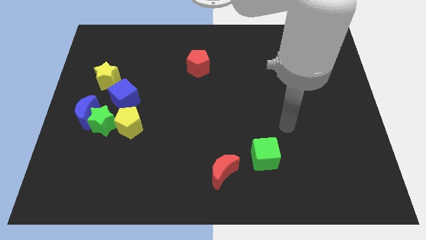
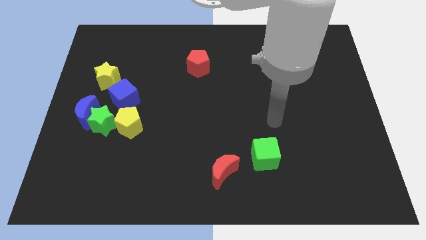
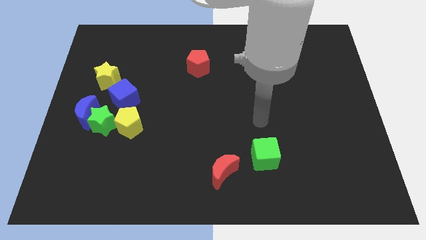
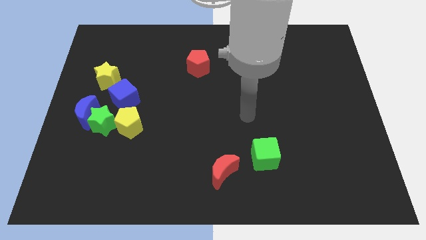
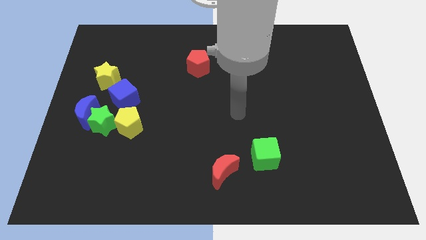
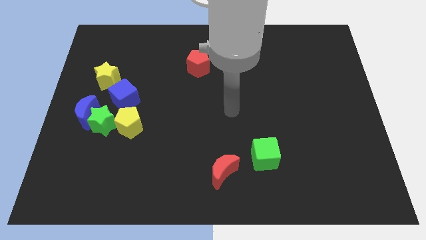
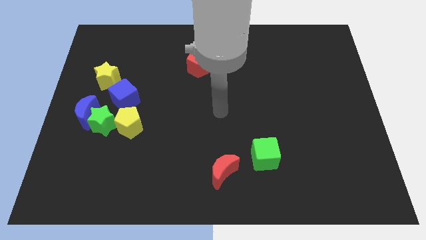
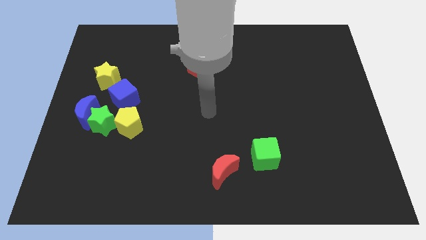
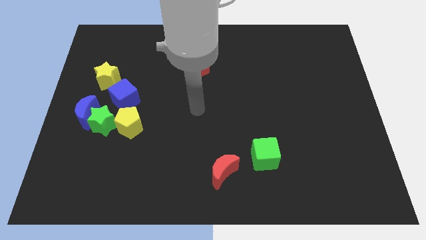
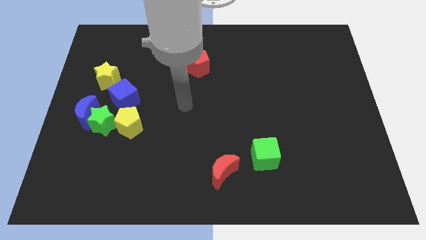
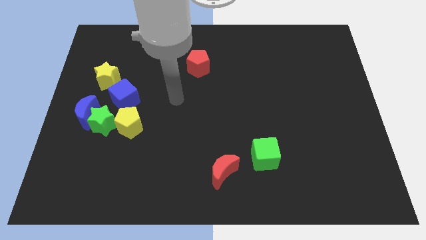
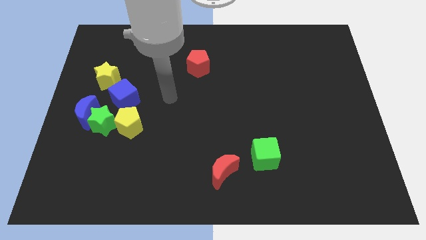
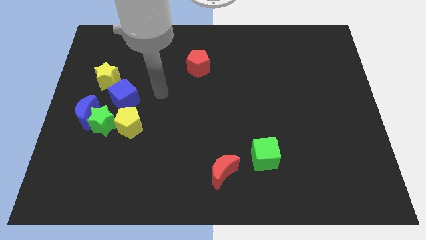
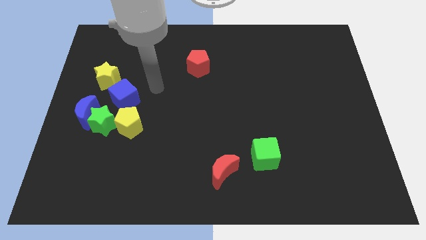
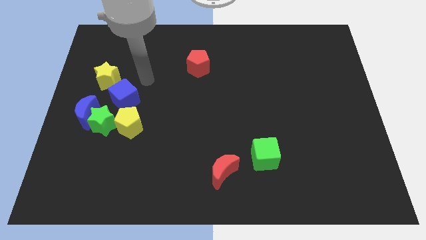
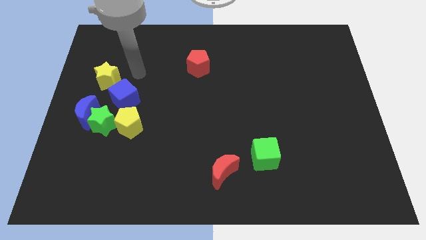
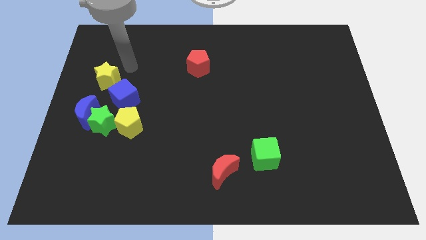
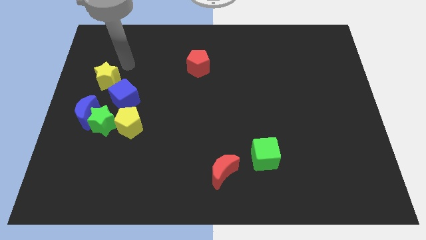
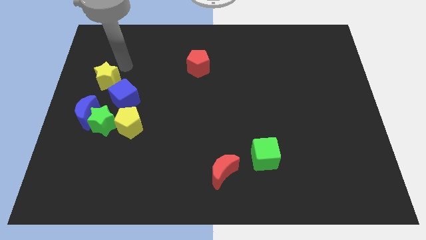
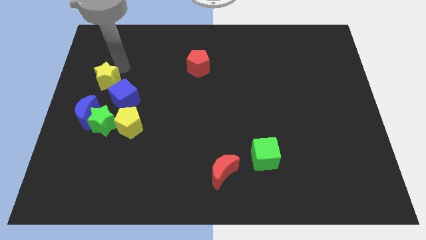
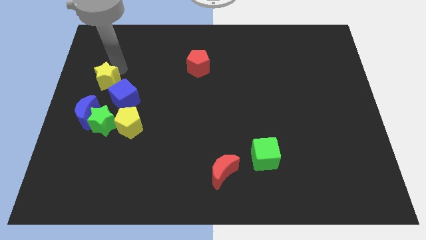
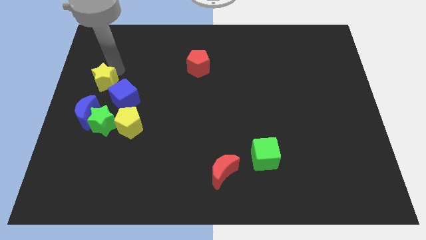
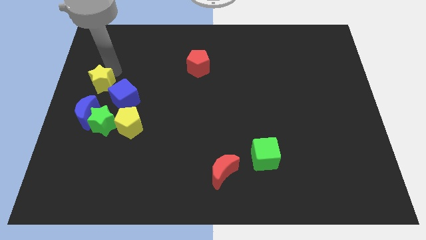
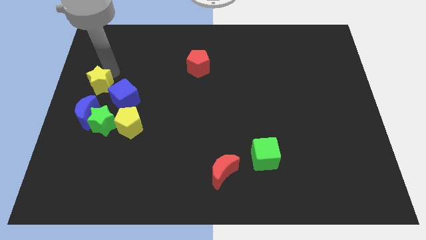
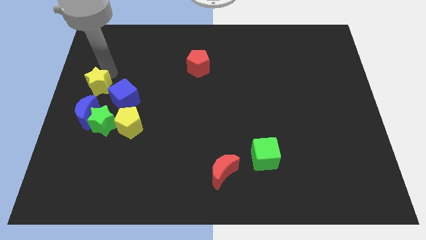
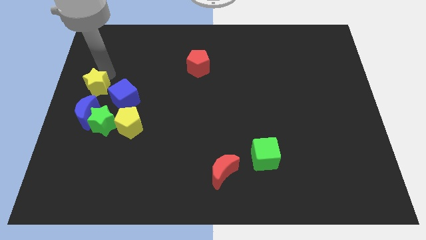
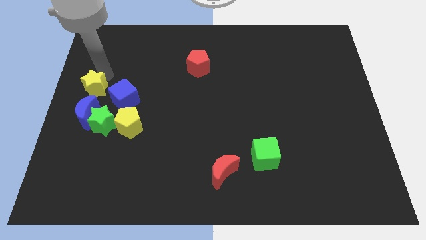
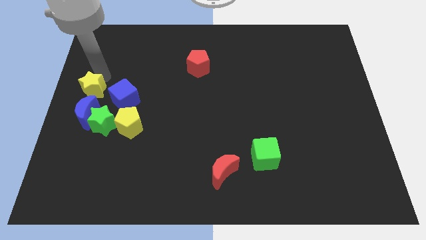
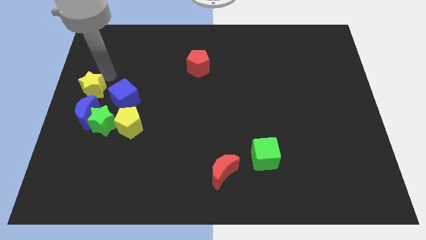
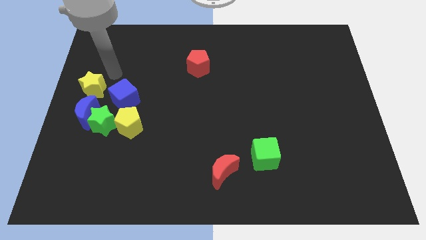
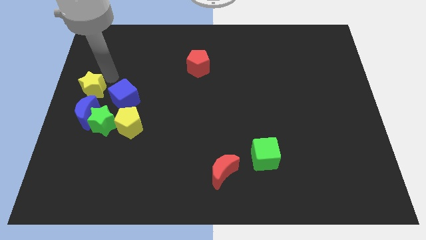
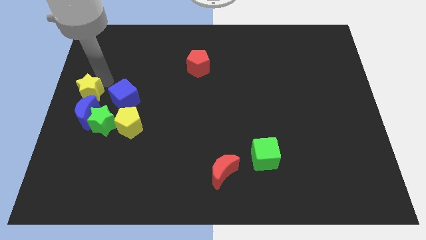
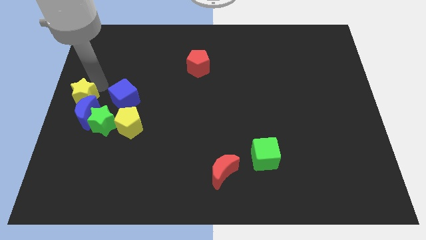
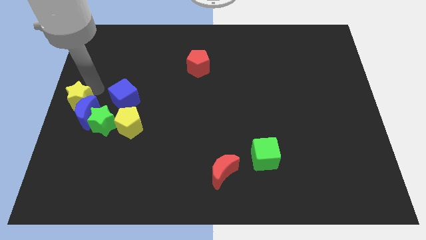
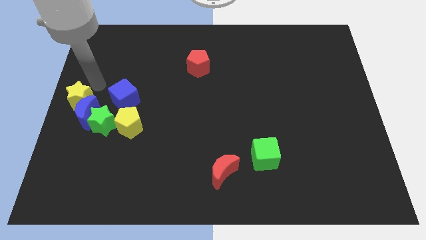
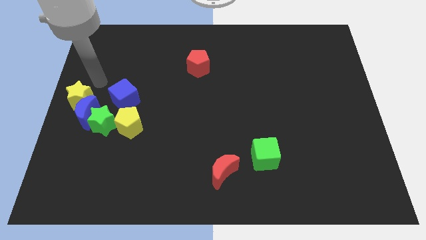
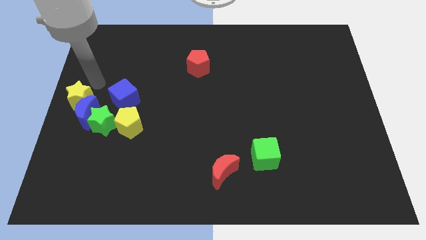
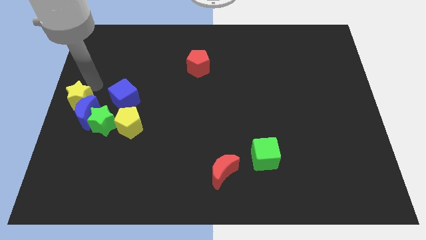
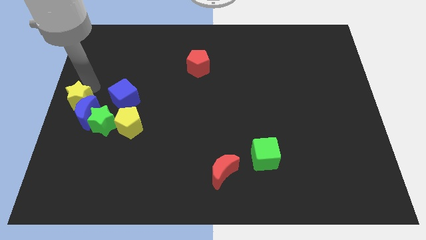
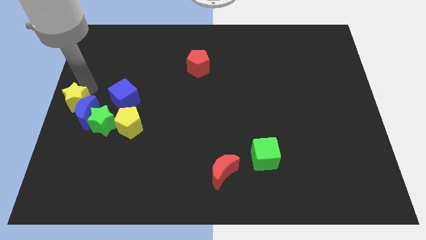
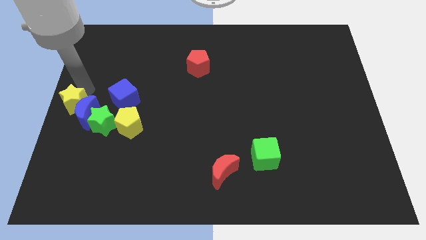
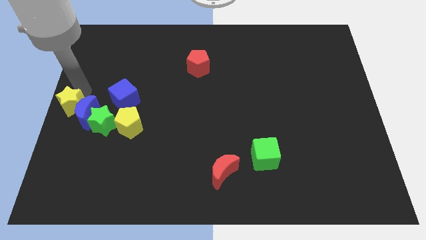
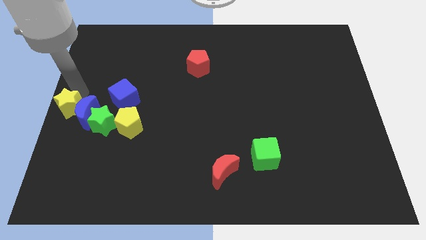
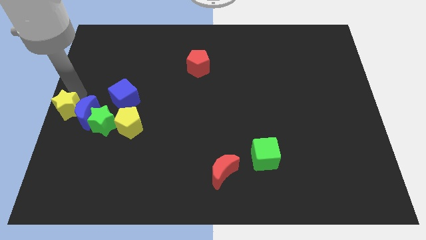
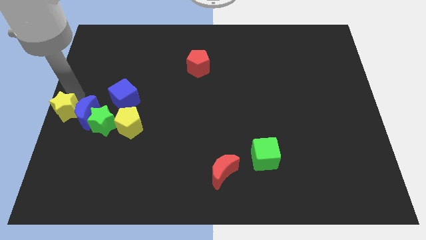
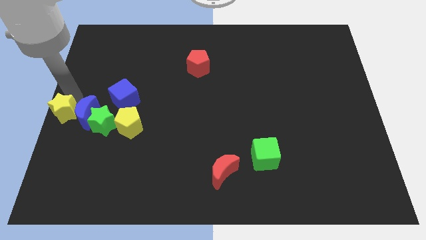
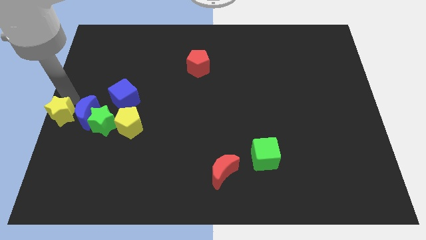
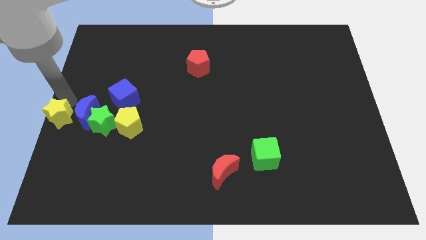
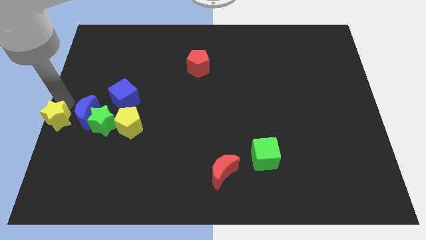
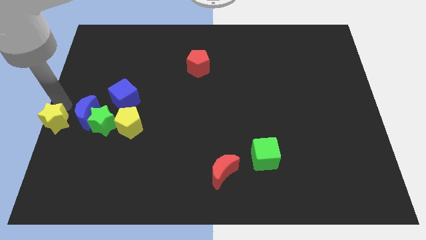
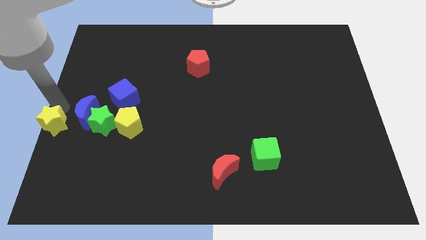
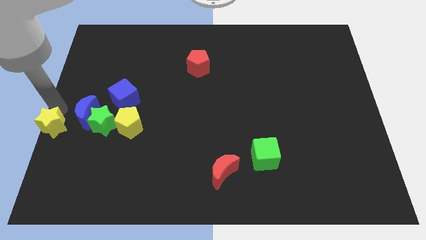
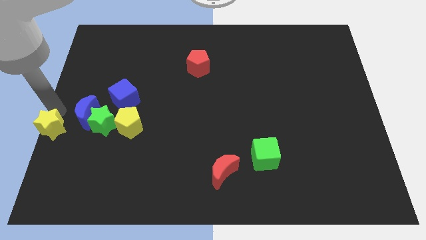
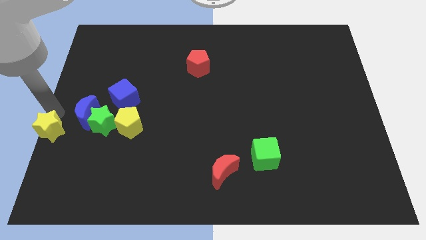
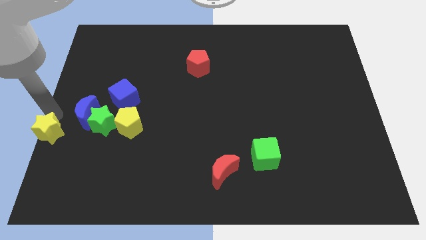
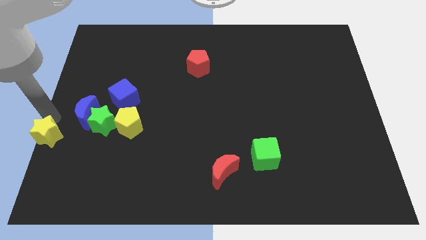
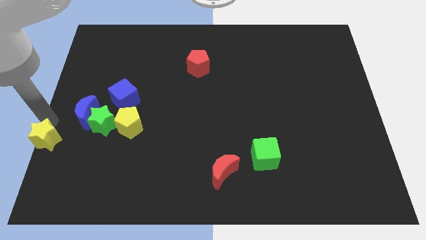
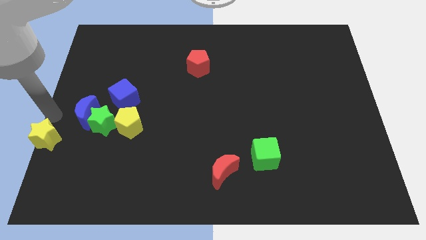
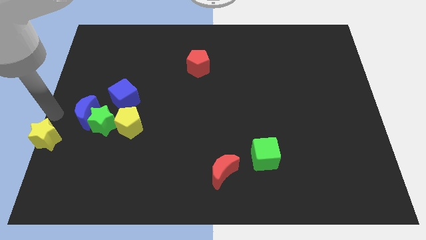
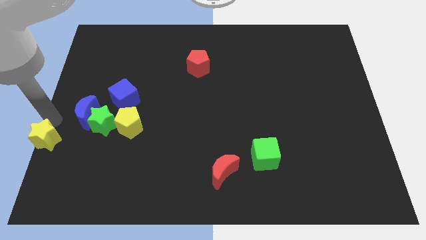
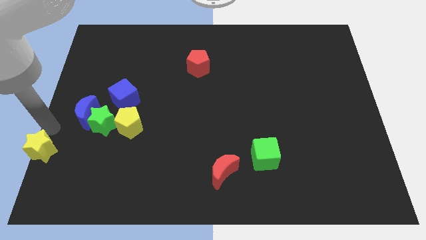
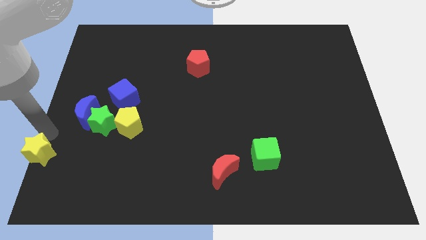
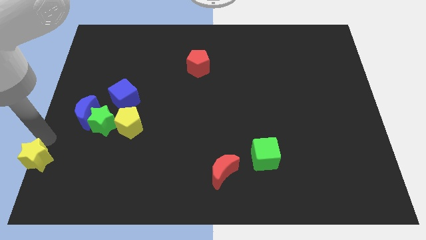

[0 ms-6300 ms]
slide the yellow star to the lower left corner

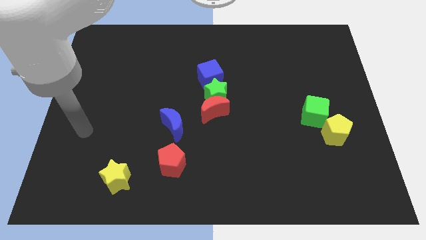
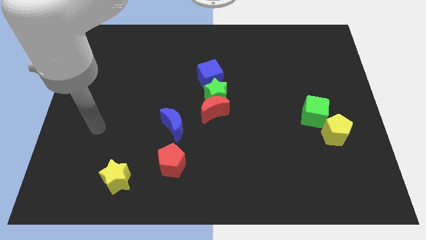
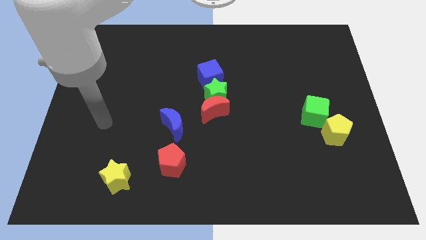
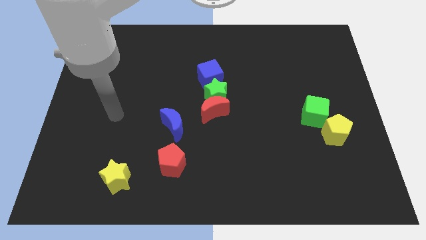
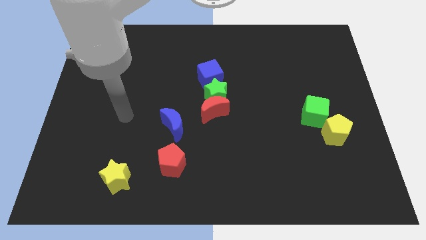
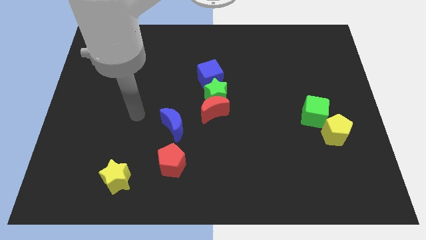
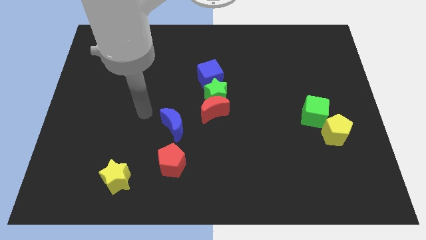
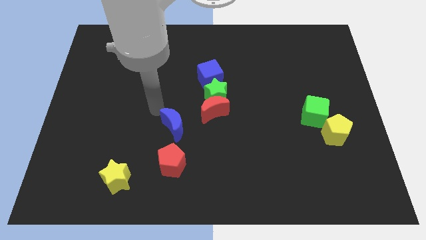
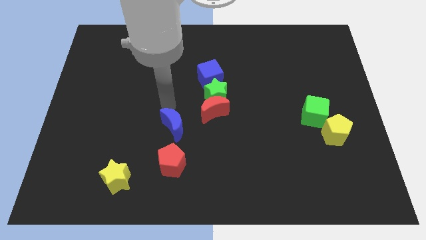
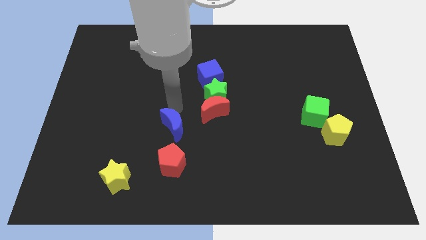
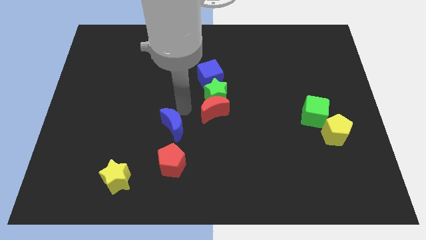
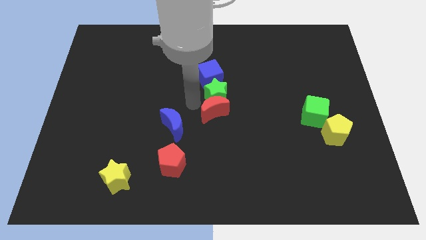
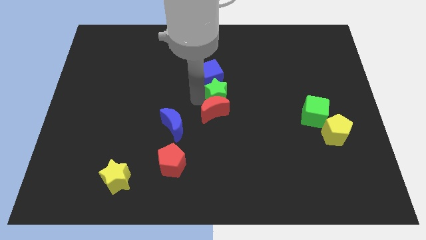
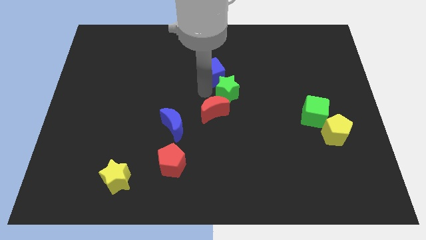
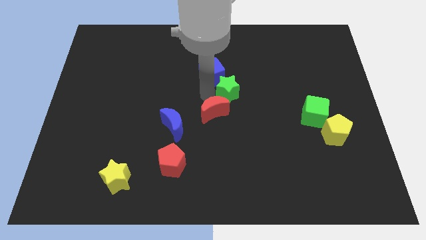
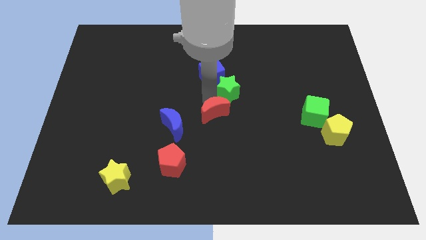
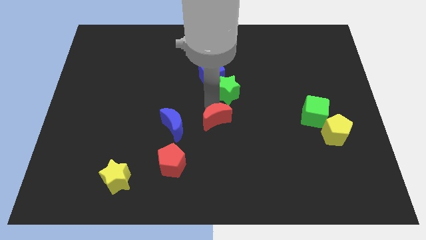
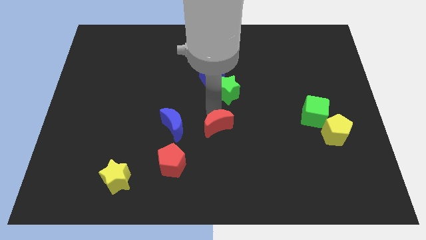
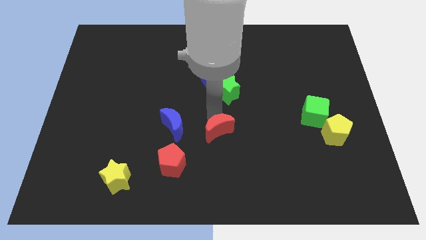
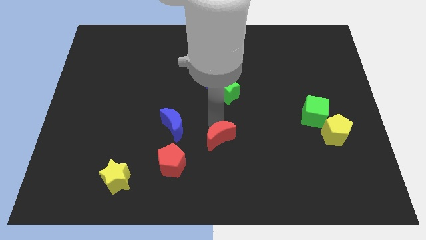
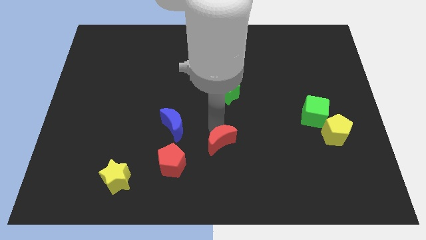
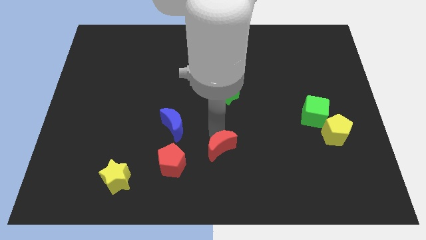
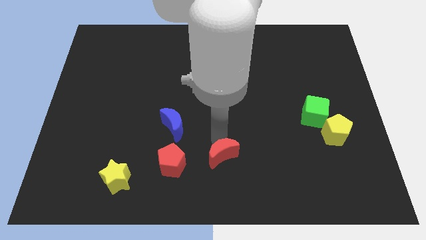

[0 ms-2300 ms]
put the red moon to the bottom
